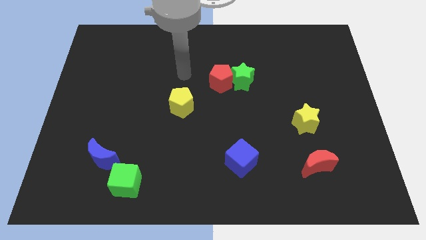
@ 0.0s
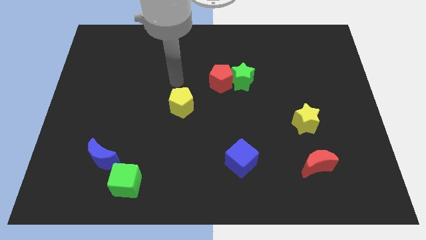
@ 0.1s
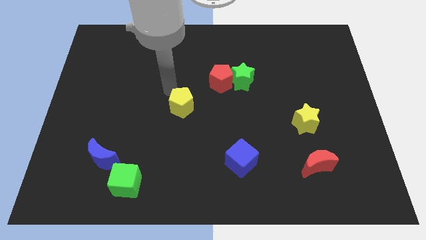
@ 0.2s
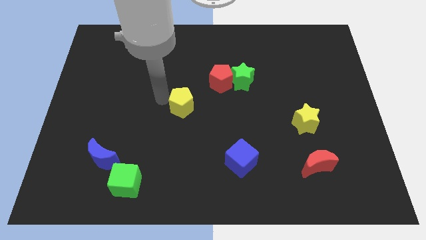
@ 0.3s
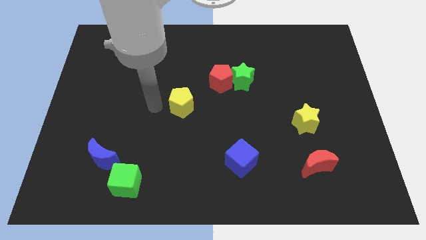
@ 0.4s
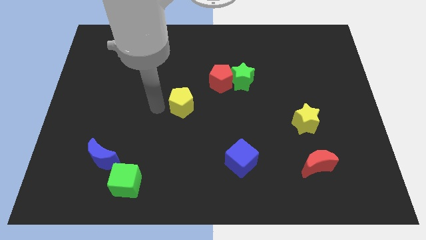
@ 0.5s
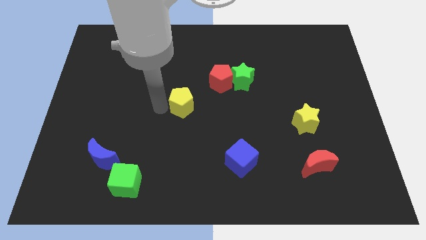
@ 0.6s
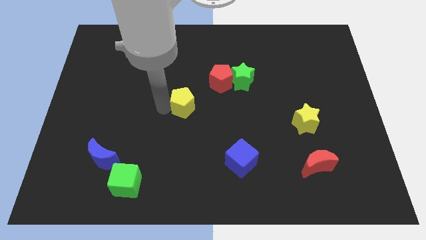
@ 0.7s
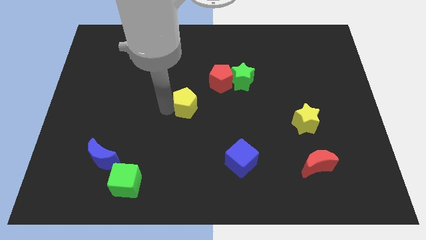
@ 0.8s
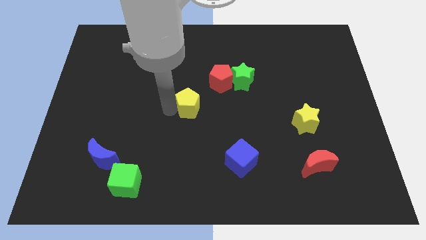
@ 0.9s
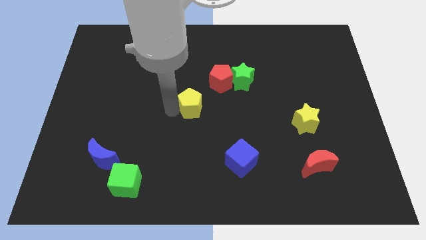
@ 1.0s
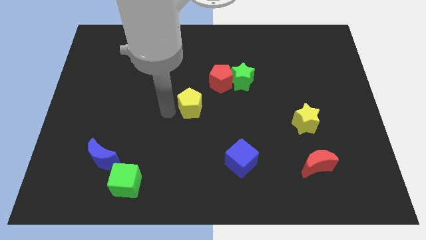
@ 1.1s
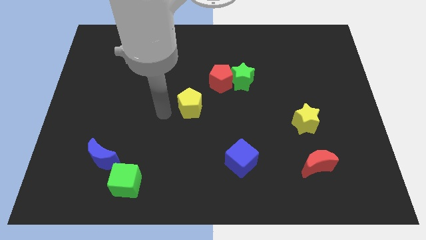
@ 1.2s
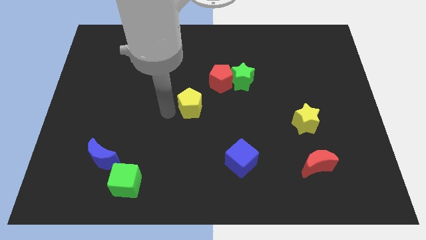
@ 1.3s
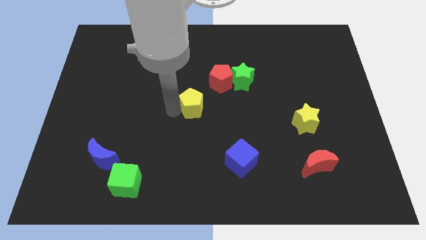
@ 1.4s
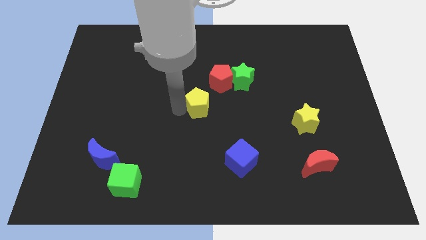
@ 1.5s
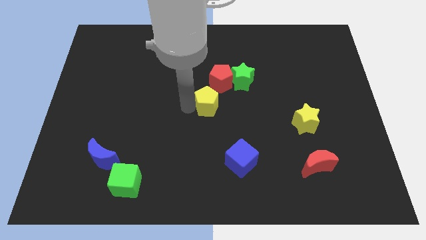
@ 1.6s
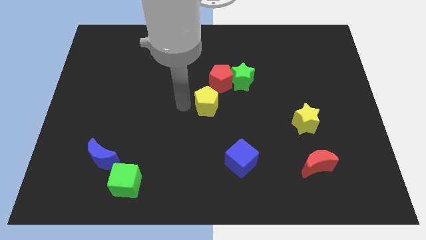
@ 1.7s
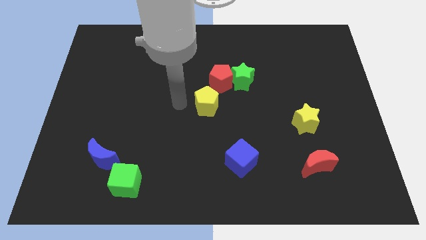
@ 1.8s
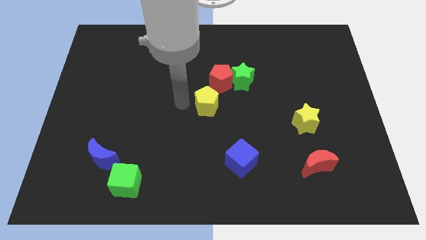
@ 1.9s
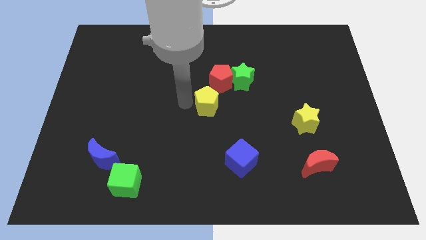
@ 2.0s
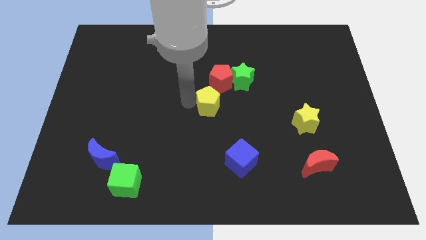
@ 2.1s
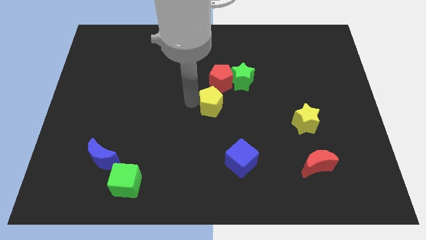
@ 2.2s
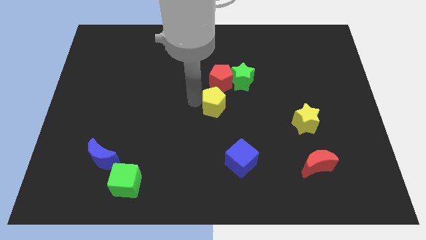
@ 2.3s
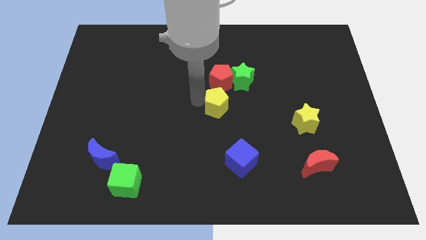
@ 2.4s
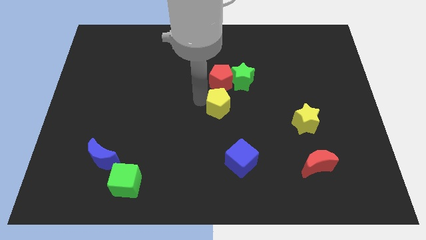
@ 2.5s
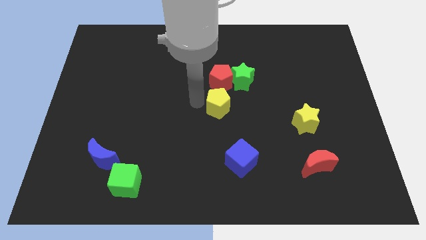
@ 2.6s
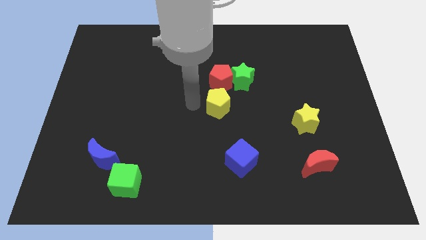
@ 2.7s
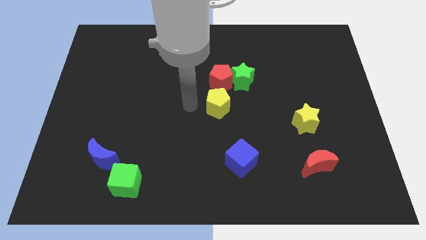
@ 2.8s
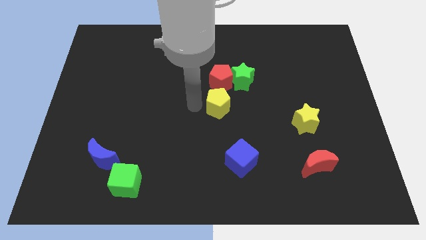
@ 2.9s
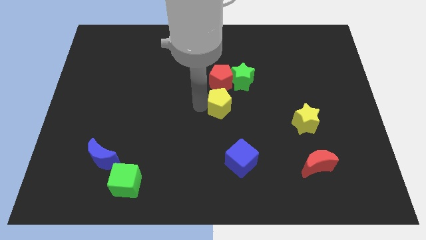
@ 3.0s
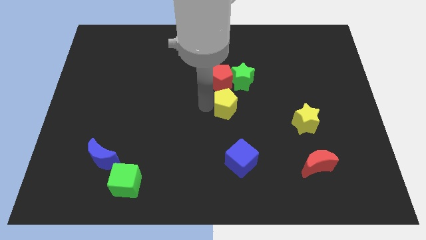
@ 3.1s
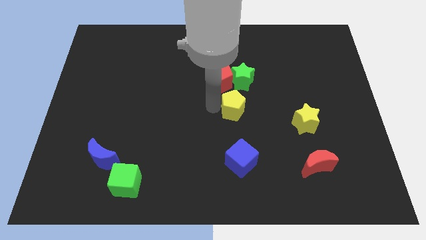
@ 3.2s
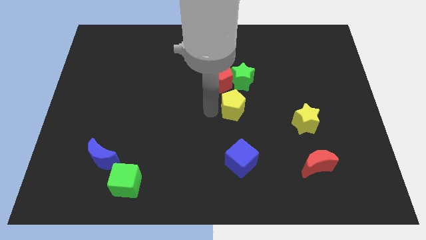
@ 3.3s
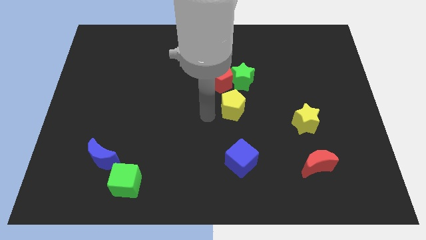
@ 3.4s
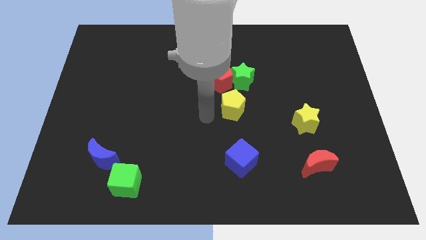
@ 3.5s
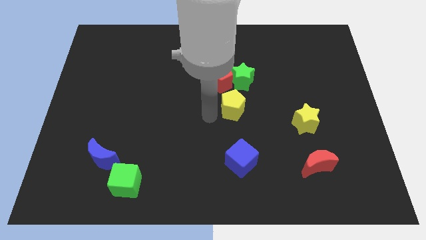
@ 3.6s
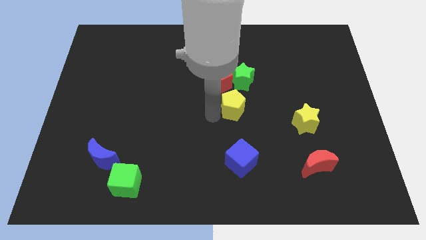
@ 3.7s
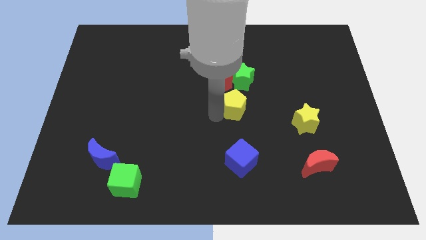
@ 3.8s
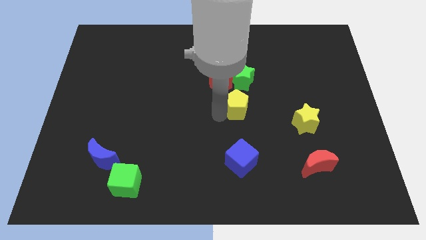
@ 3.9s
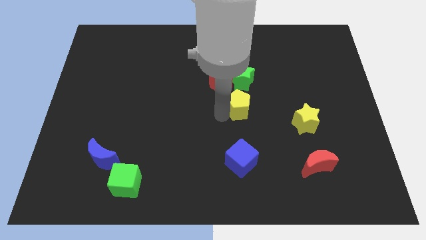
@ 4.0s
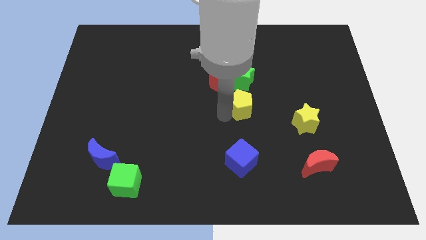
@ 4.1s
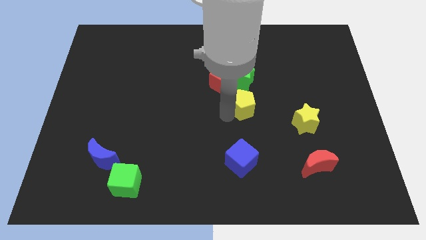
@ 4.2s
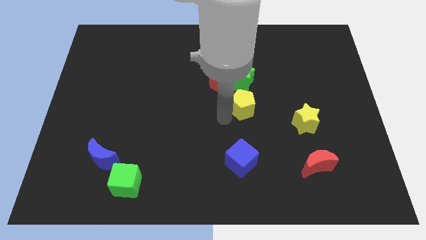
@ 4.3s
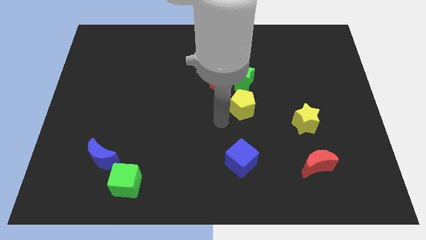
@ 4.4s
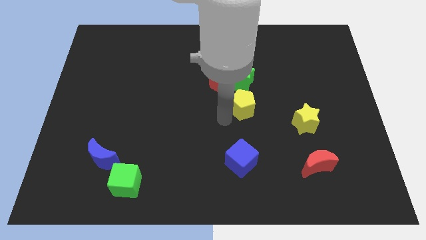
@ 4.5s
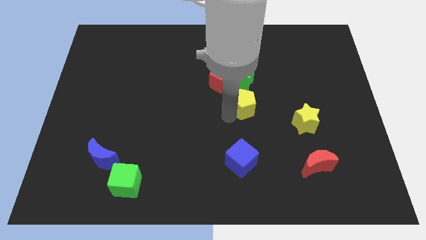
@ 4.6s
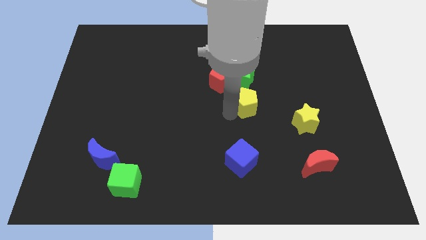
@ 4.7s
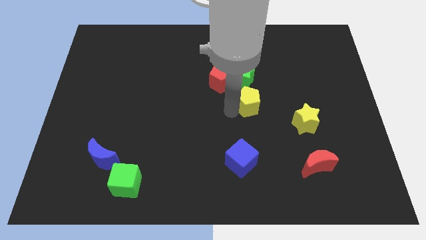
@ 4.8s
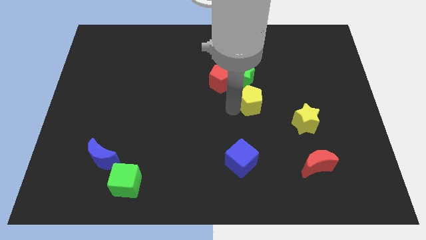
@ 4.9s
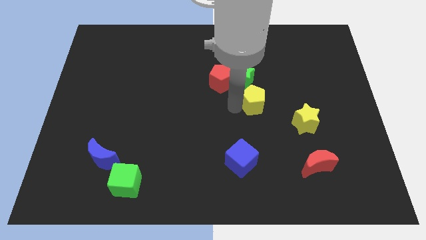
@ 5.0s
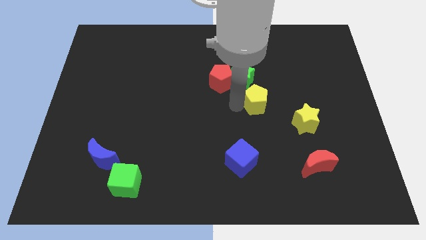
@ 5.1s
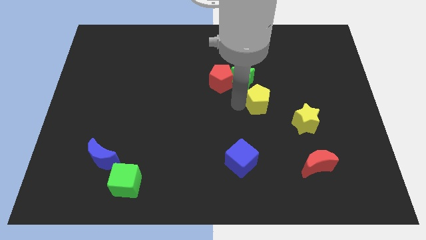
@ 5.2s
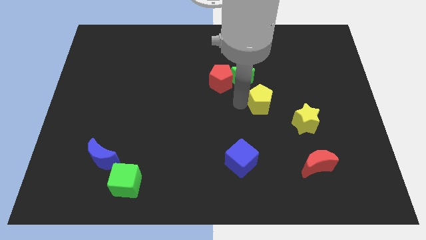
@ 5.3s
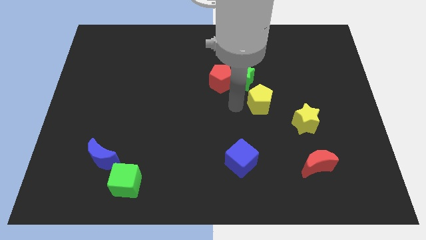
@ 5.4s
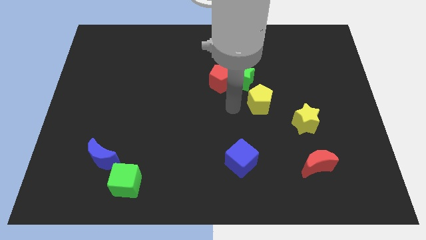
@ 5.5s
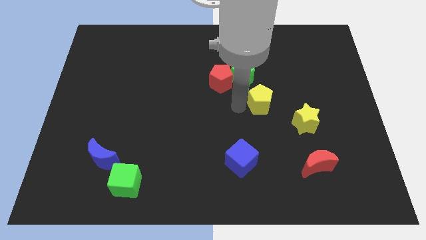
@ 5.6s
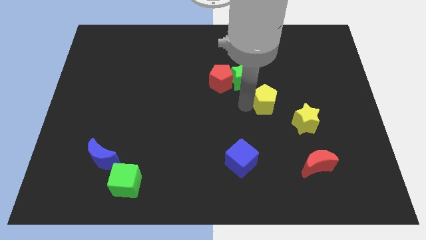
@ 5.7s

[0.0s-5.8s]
slide the yellow pentagon to the right

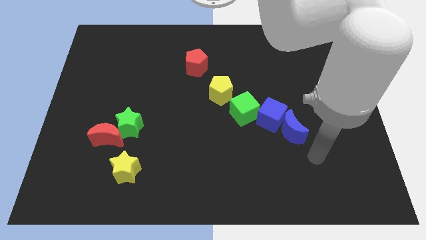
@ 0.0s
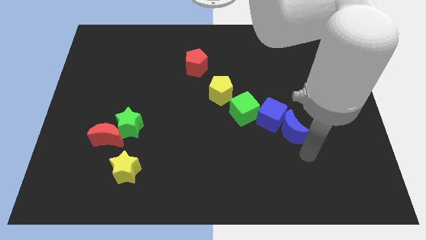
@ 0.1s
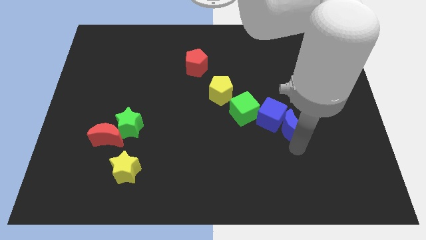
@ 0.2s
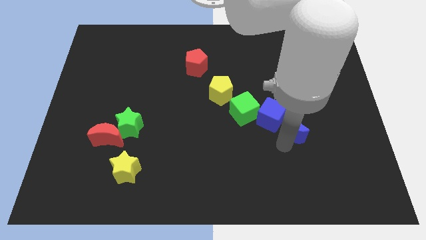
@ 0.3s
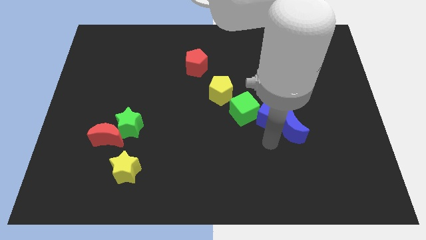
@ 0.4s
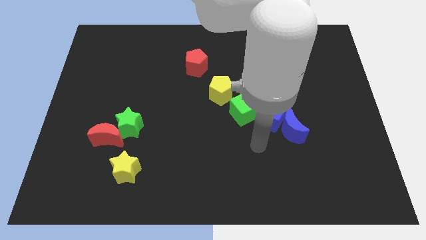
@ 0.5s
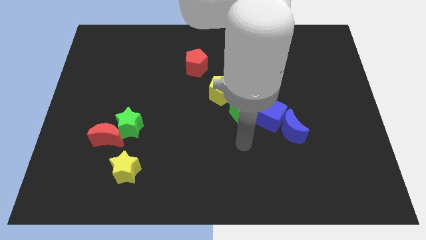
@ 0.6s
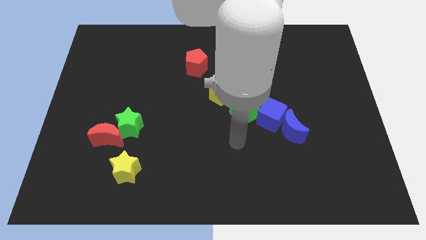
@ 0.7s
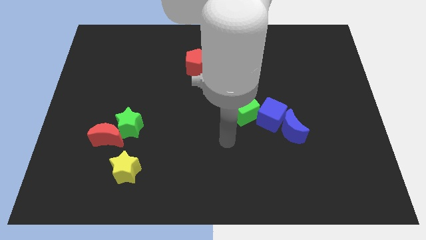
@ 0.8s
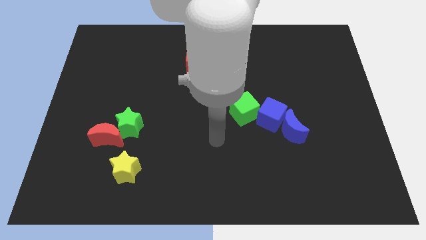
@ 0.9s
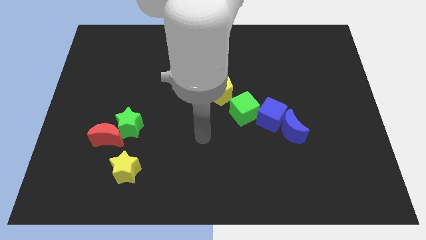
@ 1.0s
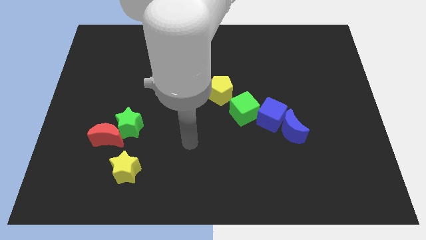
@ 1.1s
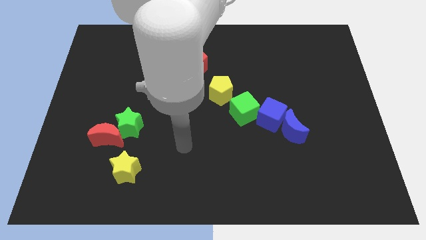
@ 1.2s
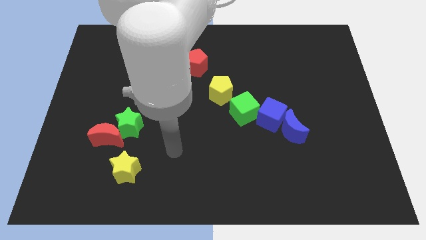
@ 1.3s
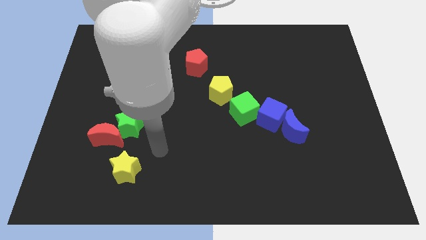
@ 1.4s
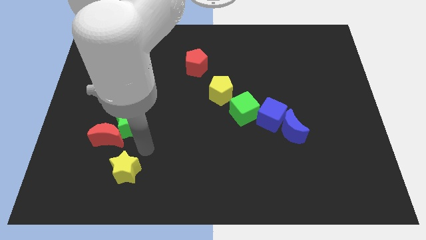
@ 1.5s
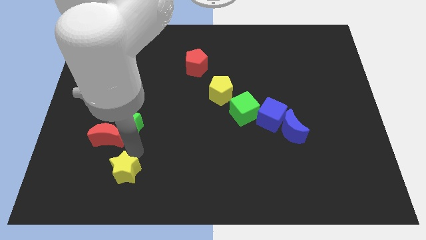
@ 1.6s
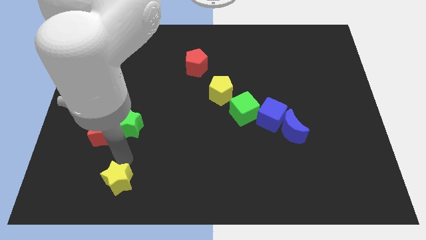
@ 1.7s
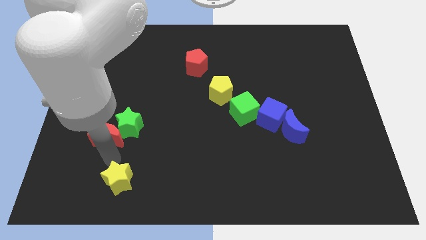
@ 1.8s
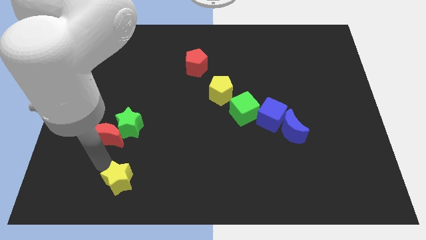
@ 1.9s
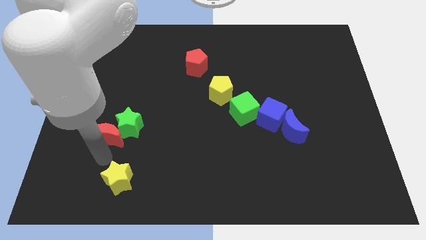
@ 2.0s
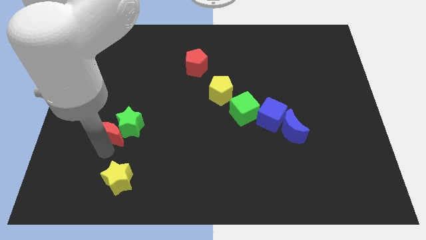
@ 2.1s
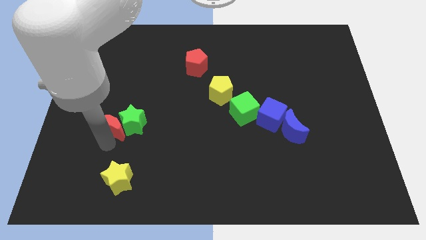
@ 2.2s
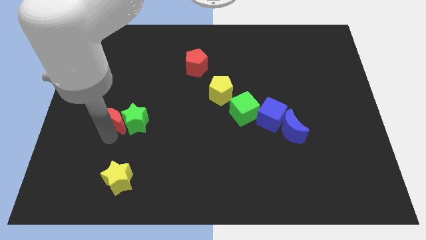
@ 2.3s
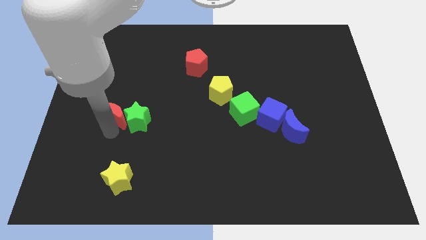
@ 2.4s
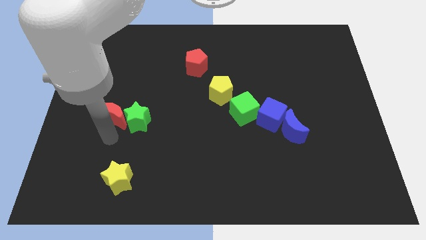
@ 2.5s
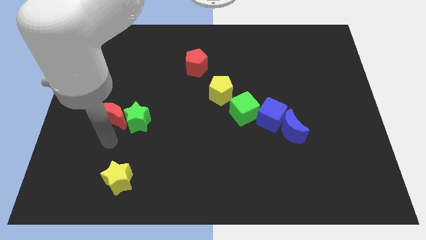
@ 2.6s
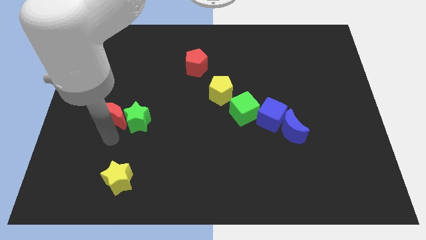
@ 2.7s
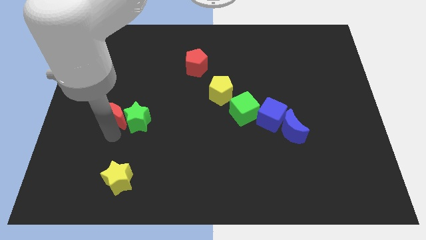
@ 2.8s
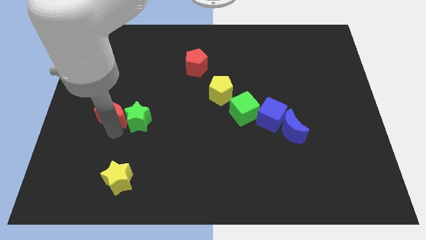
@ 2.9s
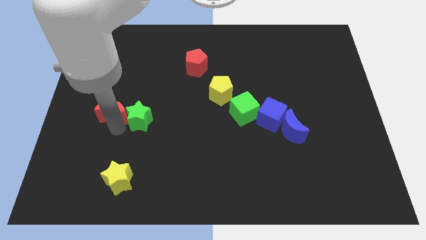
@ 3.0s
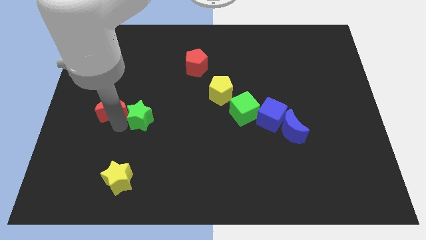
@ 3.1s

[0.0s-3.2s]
move the red moon upwards a little bit
